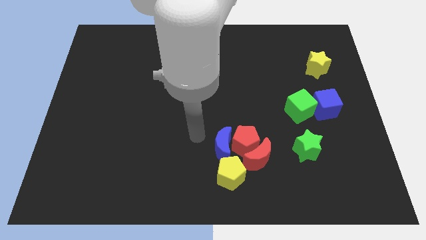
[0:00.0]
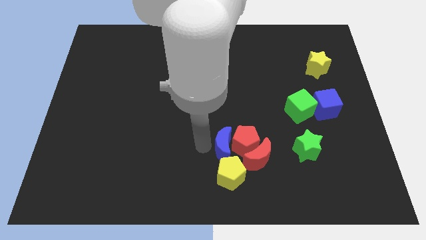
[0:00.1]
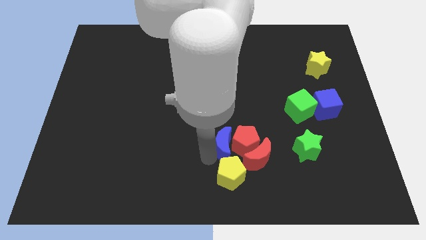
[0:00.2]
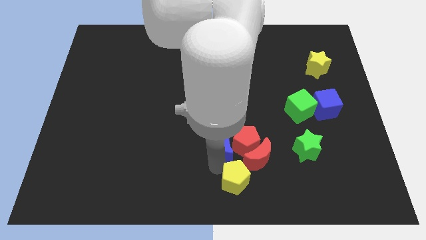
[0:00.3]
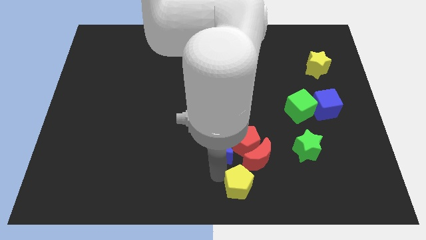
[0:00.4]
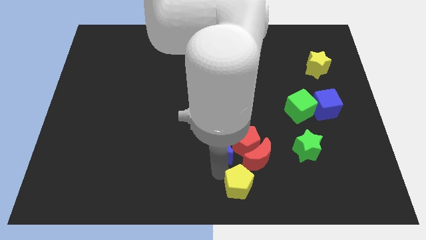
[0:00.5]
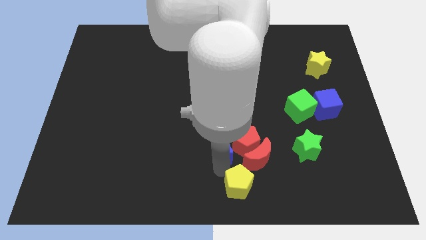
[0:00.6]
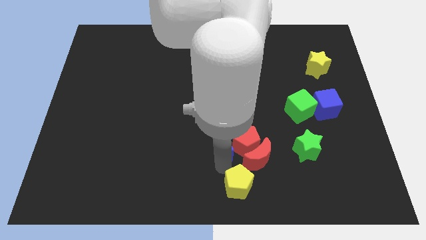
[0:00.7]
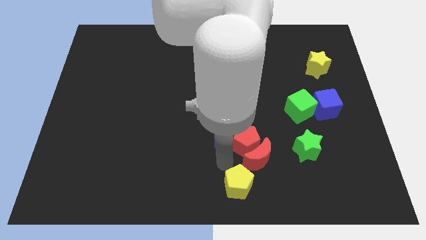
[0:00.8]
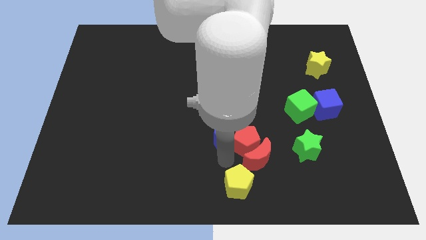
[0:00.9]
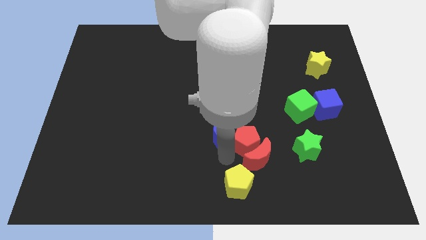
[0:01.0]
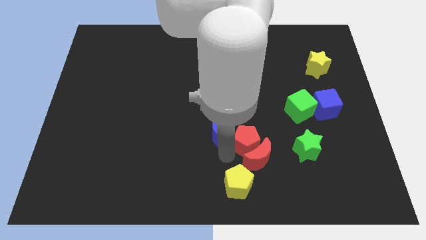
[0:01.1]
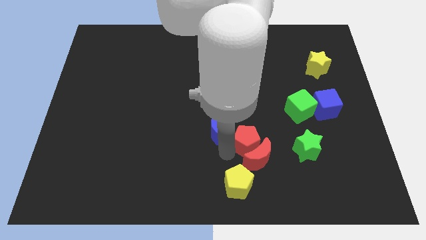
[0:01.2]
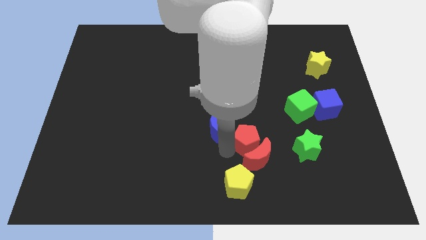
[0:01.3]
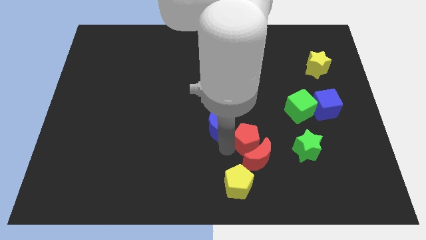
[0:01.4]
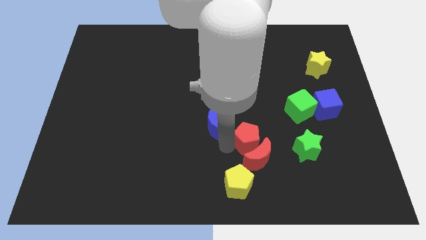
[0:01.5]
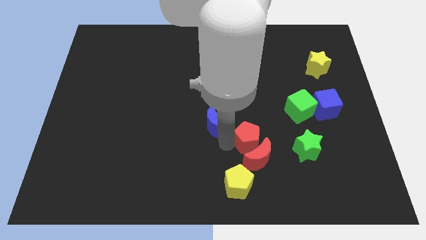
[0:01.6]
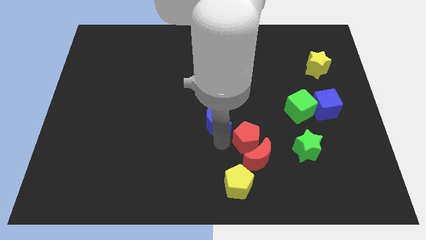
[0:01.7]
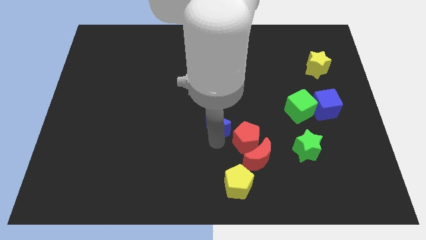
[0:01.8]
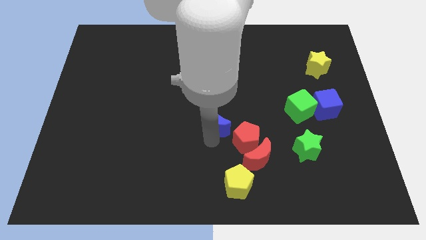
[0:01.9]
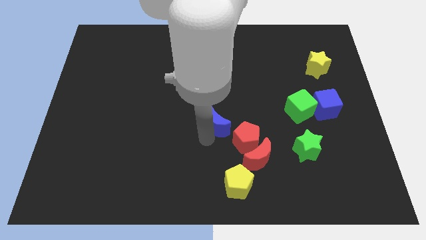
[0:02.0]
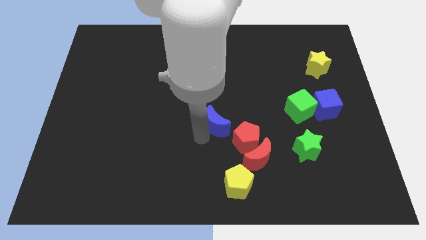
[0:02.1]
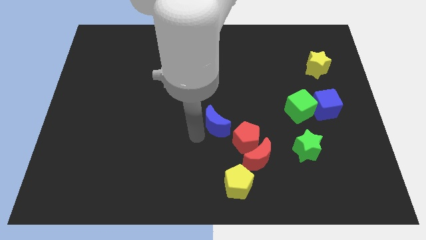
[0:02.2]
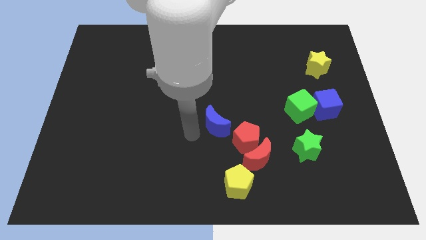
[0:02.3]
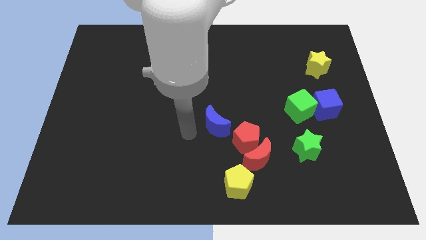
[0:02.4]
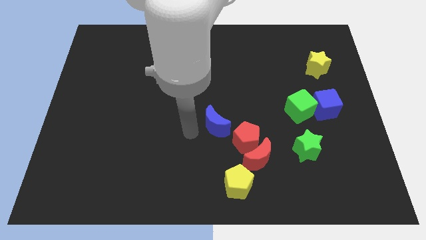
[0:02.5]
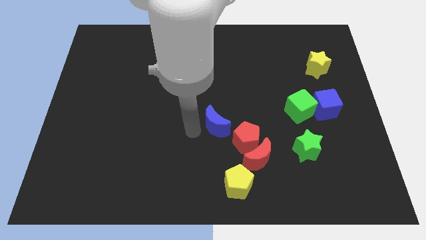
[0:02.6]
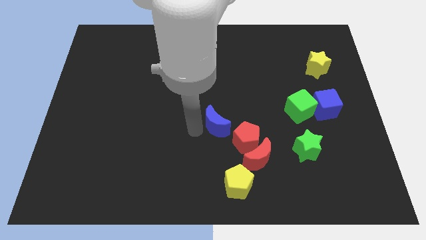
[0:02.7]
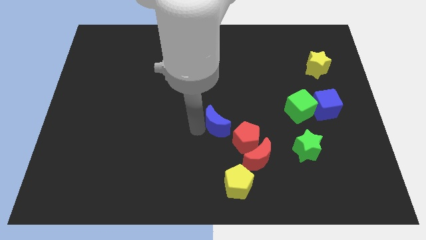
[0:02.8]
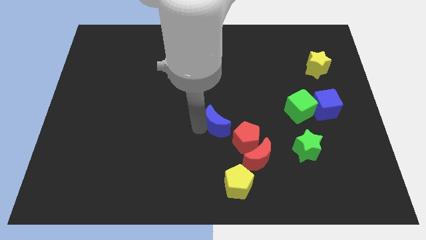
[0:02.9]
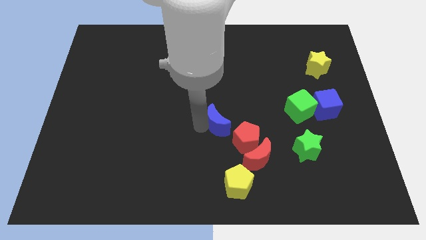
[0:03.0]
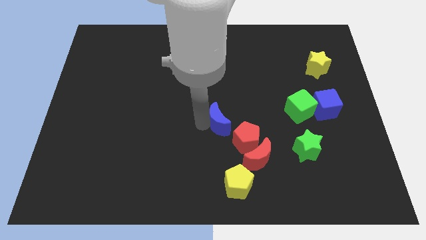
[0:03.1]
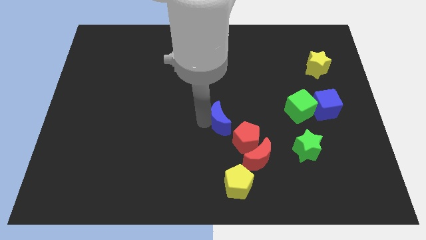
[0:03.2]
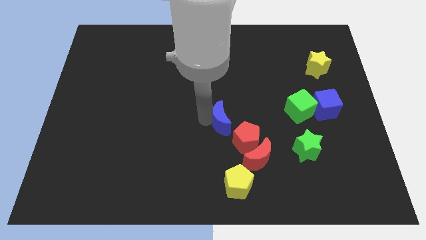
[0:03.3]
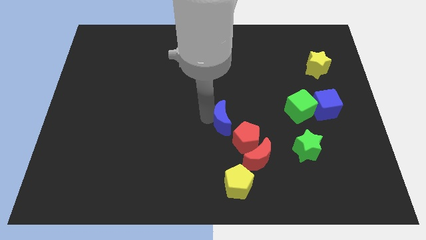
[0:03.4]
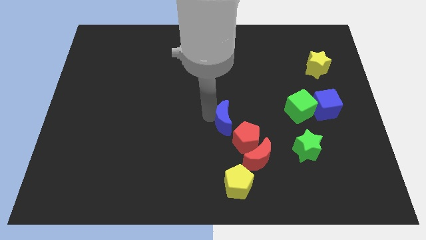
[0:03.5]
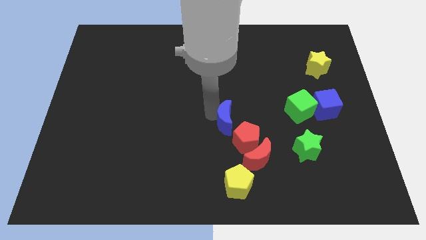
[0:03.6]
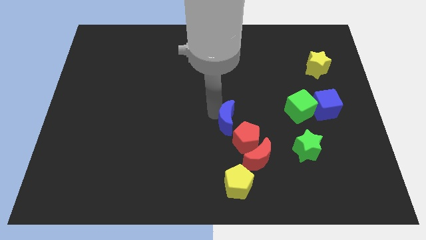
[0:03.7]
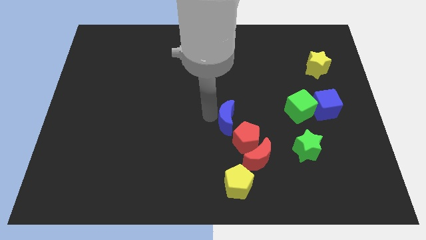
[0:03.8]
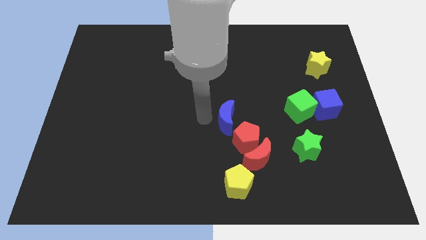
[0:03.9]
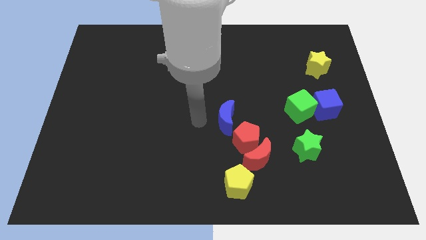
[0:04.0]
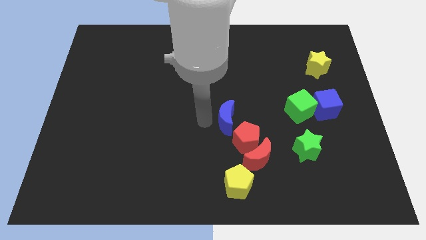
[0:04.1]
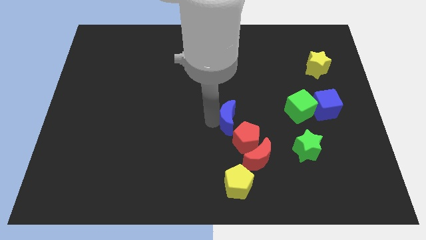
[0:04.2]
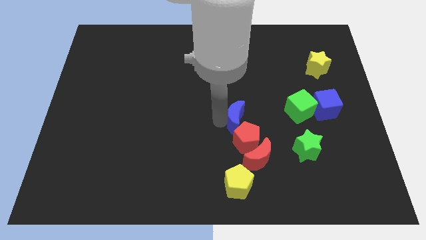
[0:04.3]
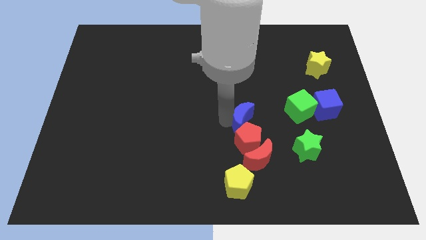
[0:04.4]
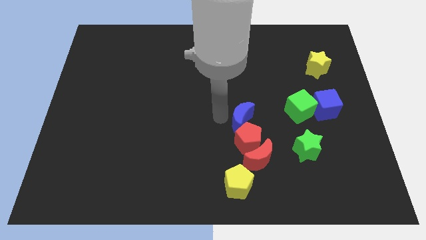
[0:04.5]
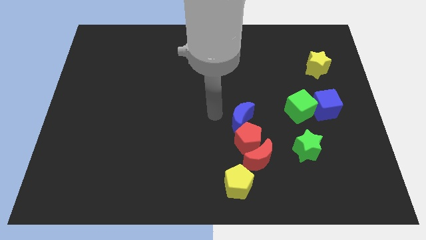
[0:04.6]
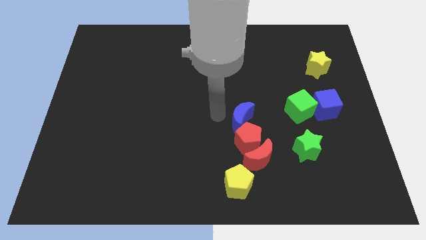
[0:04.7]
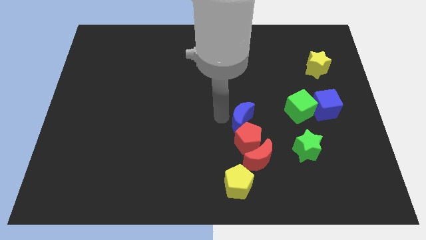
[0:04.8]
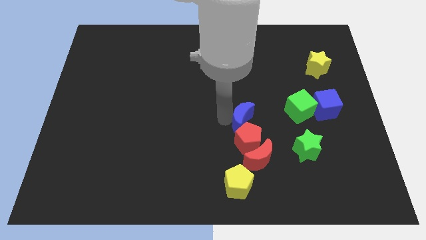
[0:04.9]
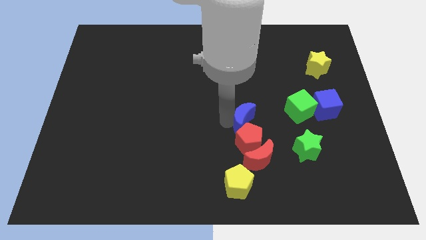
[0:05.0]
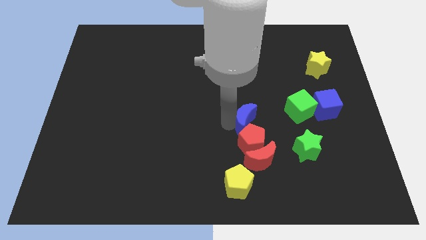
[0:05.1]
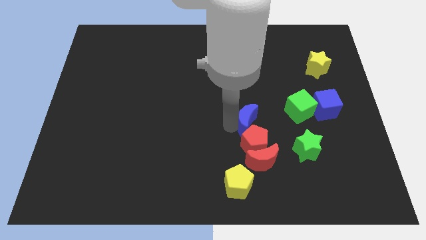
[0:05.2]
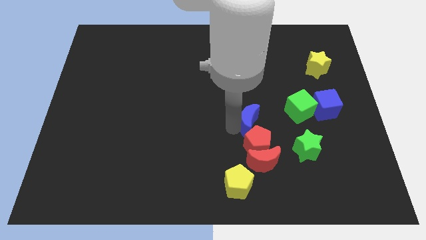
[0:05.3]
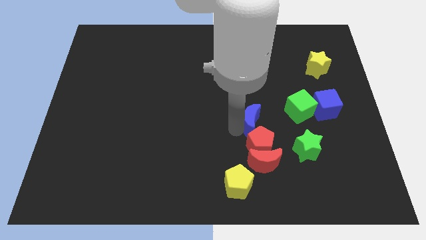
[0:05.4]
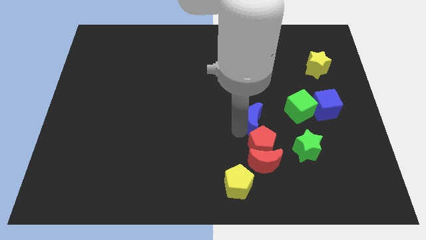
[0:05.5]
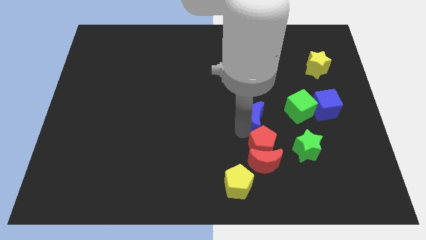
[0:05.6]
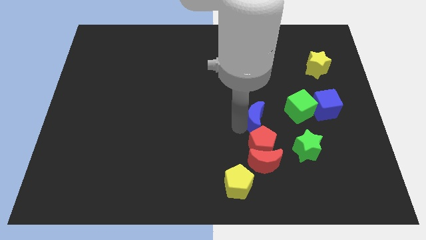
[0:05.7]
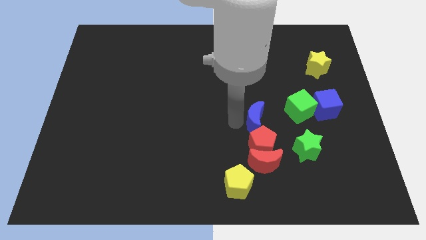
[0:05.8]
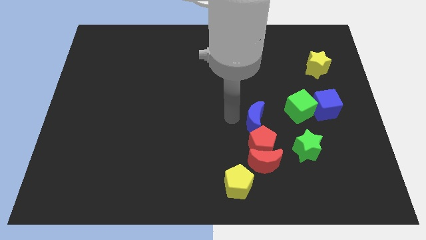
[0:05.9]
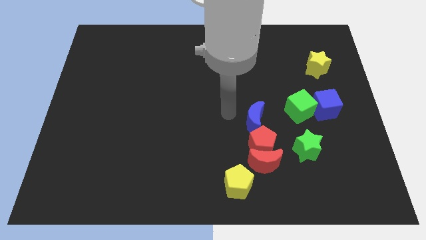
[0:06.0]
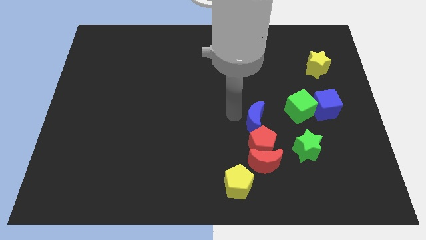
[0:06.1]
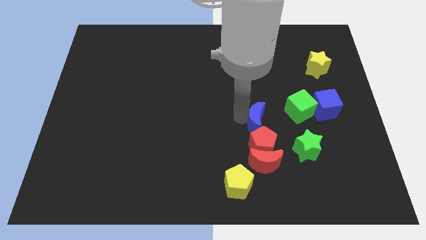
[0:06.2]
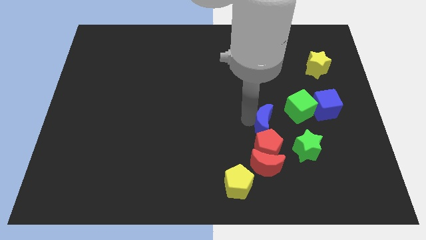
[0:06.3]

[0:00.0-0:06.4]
move the blue moon diagonally up and to the left of the green star
